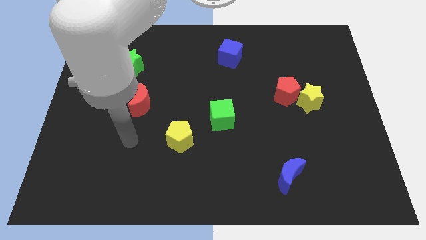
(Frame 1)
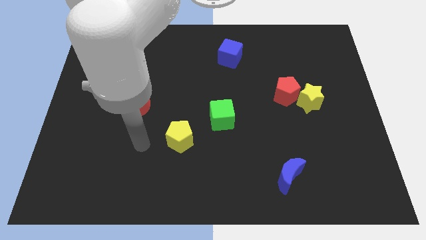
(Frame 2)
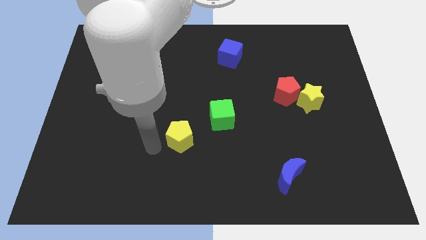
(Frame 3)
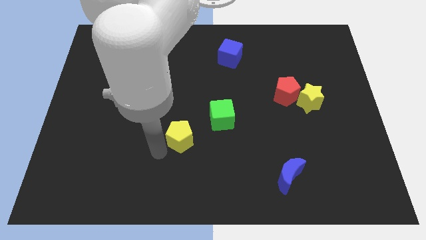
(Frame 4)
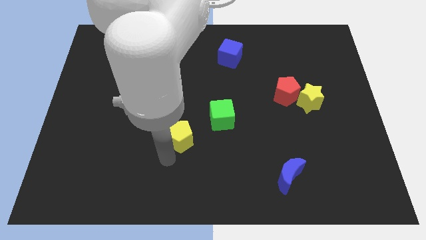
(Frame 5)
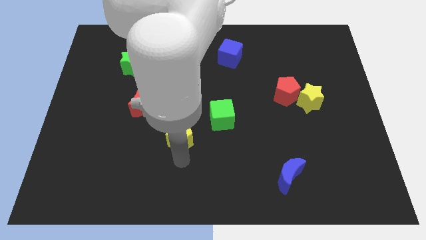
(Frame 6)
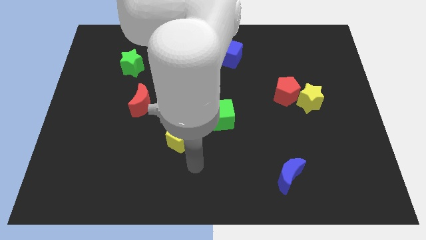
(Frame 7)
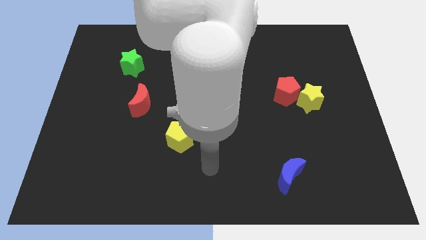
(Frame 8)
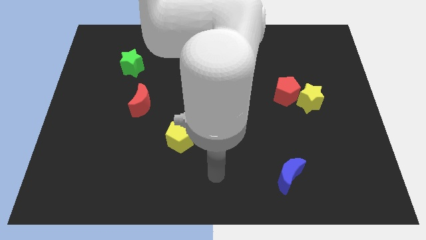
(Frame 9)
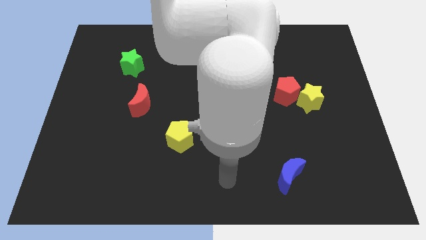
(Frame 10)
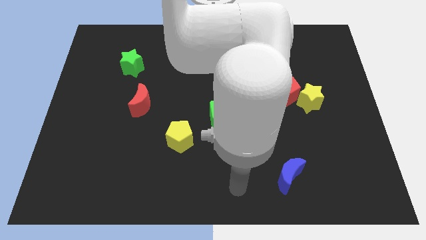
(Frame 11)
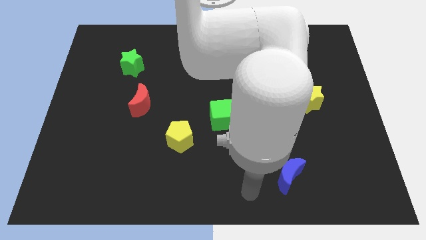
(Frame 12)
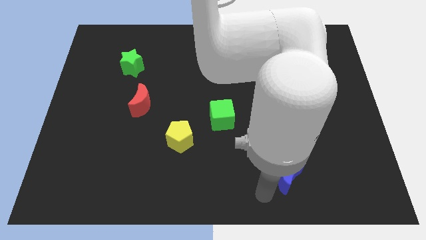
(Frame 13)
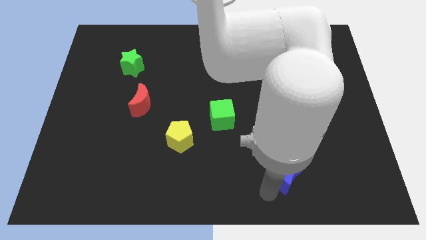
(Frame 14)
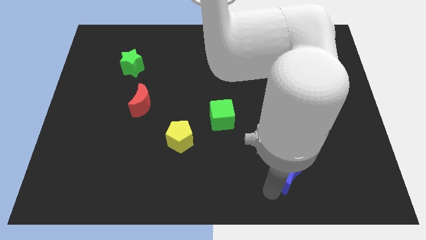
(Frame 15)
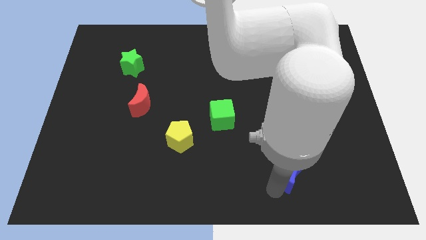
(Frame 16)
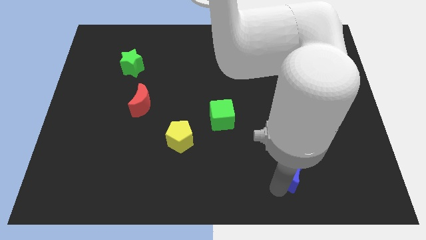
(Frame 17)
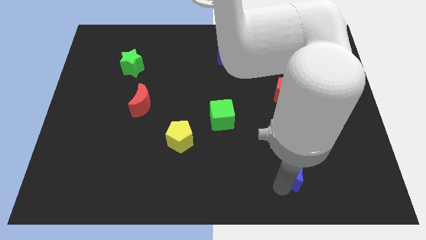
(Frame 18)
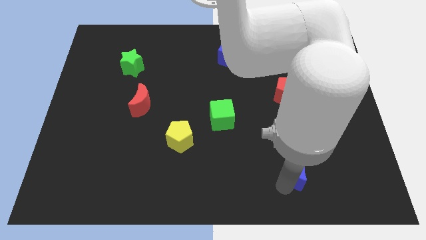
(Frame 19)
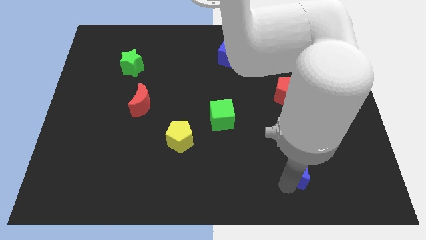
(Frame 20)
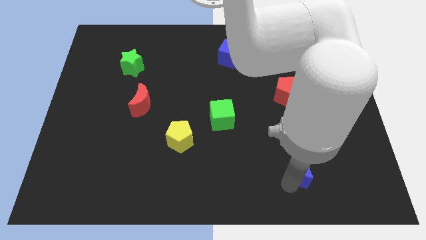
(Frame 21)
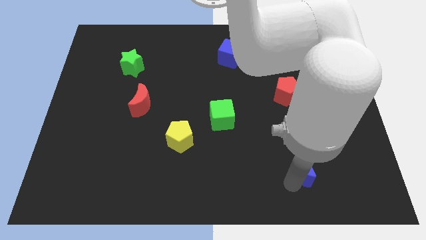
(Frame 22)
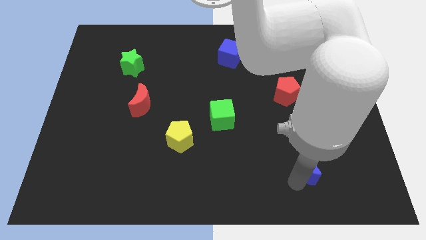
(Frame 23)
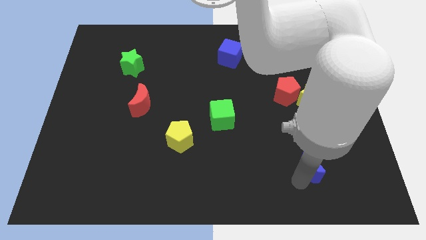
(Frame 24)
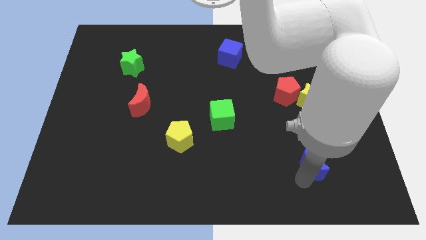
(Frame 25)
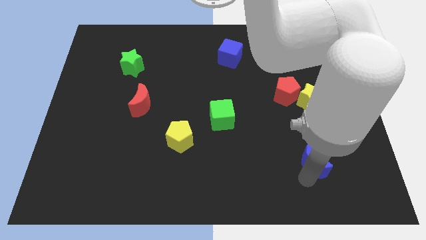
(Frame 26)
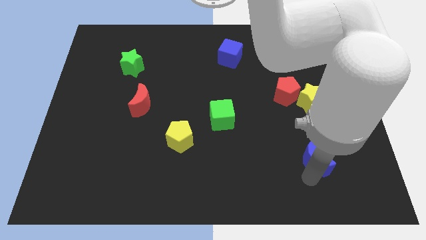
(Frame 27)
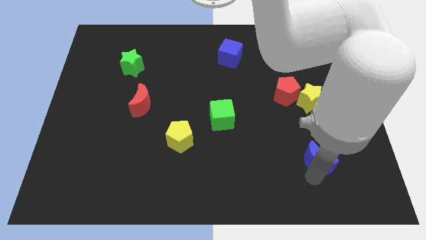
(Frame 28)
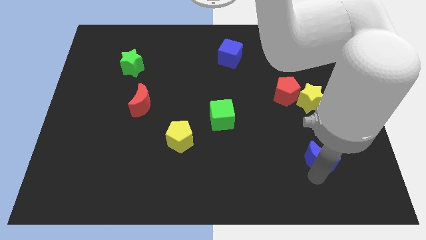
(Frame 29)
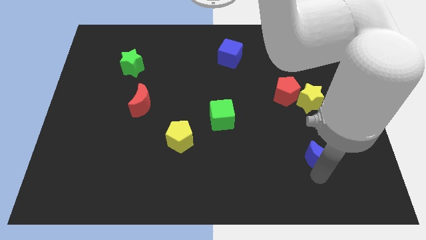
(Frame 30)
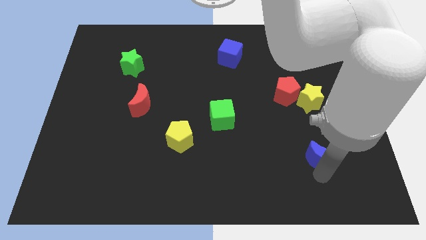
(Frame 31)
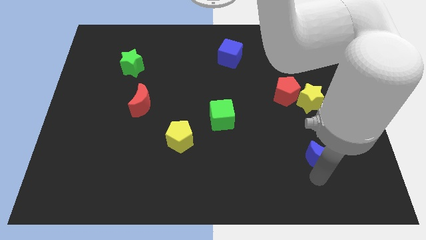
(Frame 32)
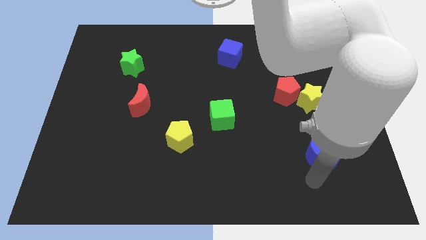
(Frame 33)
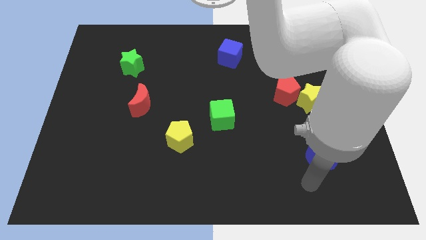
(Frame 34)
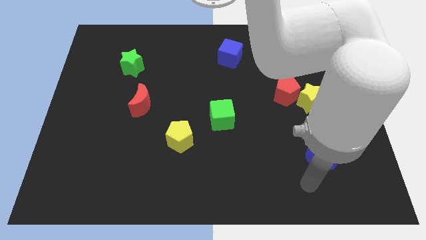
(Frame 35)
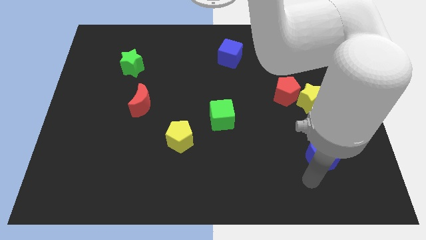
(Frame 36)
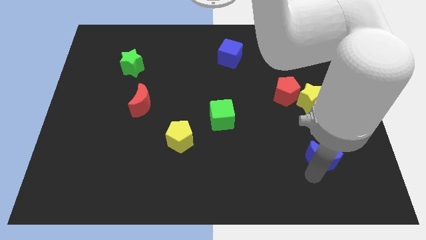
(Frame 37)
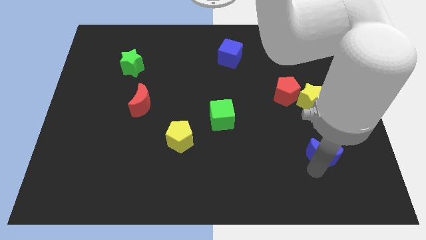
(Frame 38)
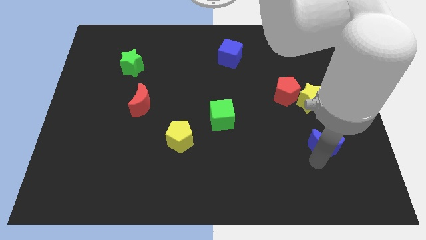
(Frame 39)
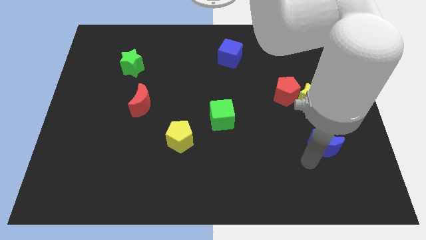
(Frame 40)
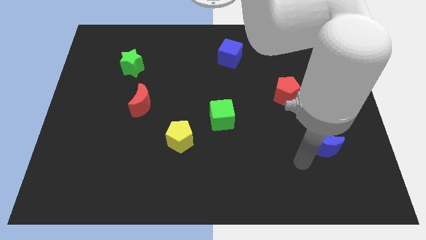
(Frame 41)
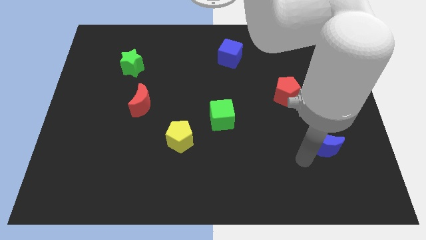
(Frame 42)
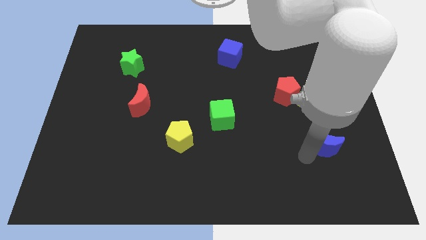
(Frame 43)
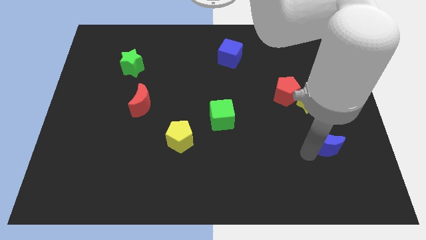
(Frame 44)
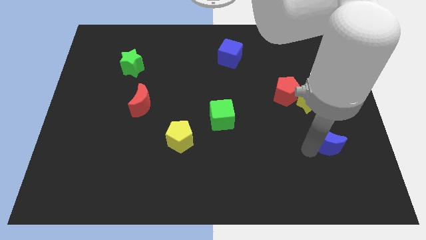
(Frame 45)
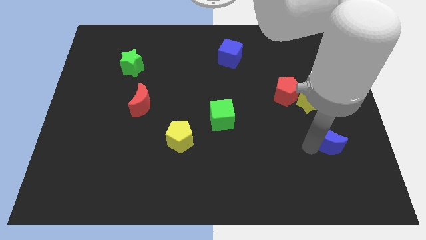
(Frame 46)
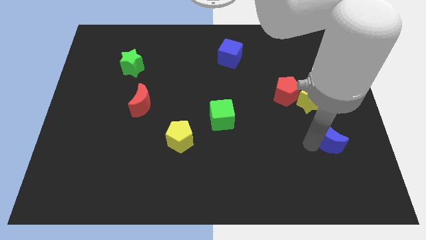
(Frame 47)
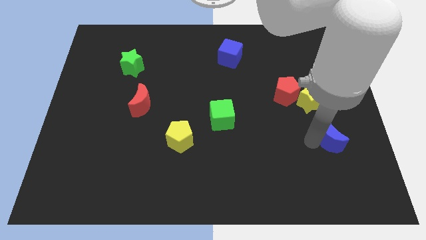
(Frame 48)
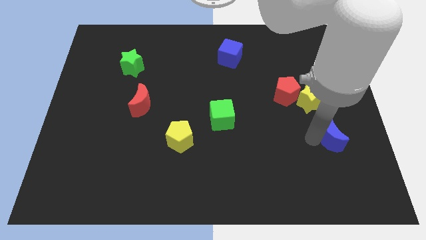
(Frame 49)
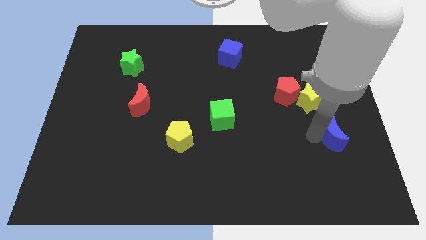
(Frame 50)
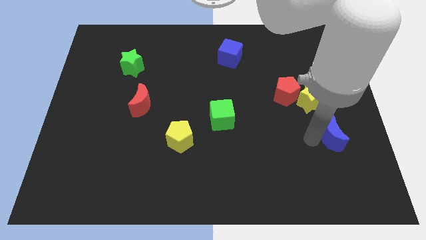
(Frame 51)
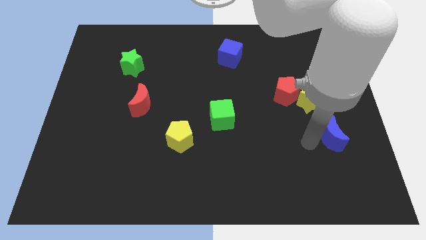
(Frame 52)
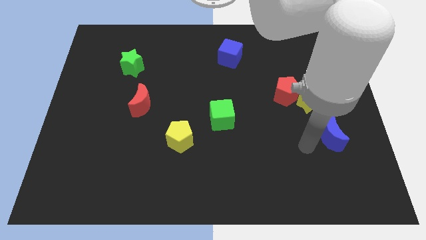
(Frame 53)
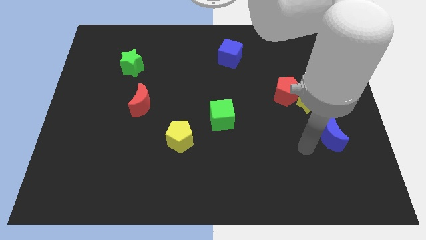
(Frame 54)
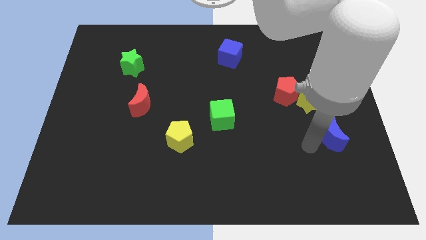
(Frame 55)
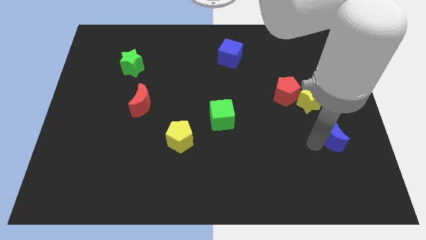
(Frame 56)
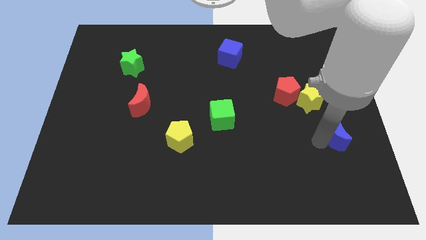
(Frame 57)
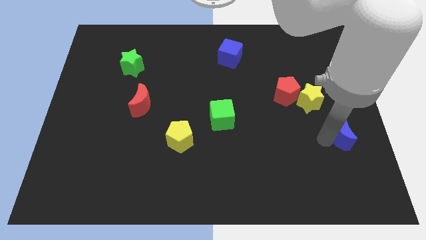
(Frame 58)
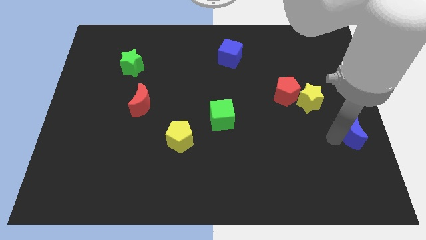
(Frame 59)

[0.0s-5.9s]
put the blue moon to the right side
